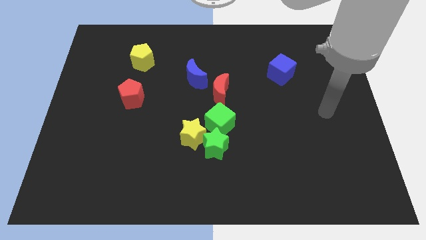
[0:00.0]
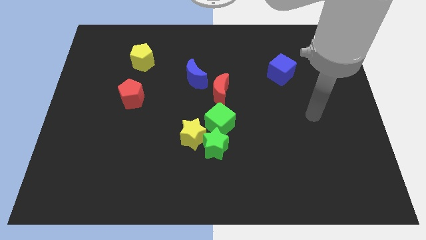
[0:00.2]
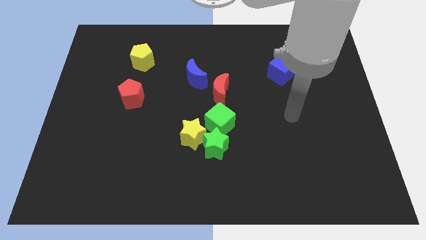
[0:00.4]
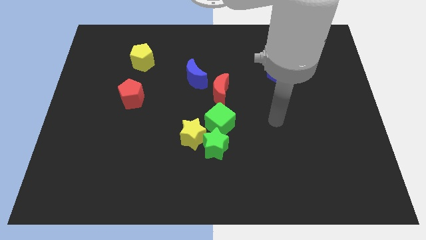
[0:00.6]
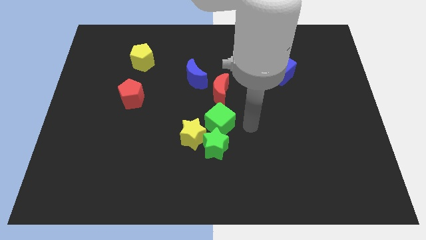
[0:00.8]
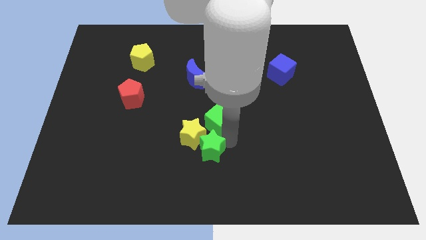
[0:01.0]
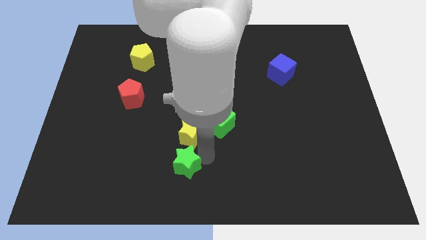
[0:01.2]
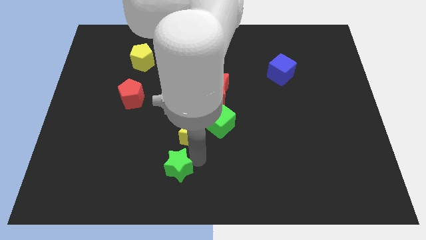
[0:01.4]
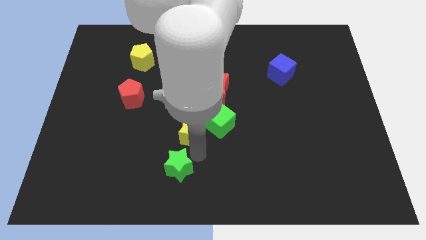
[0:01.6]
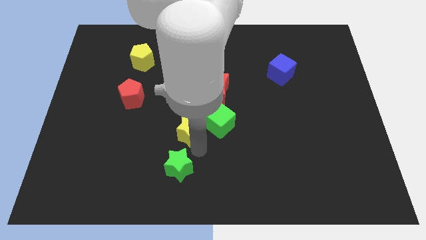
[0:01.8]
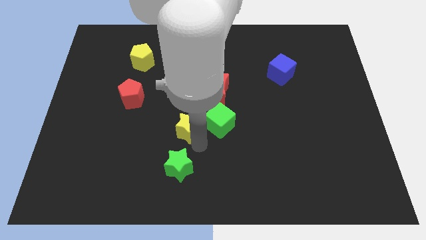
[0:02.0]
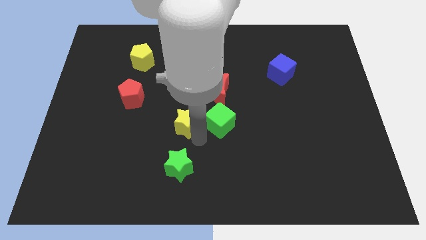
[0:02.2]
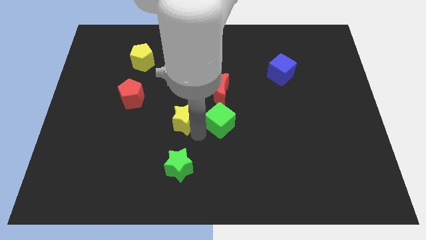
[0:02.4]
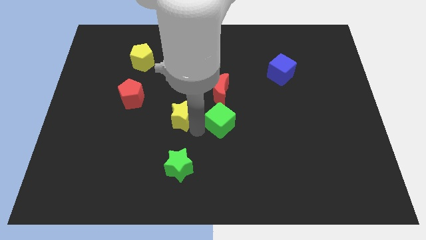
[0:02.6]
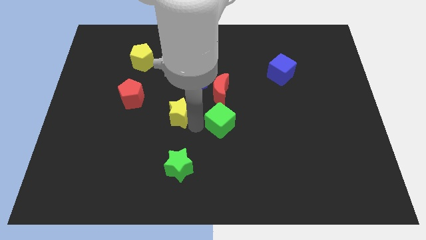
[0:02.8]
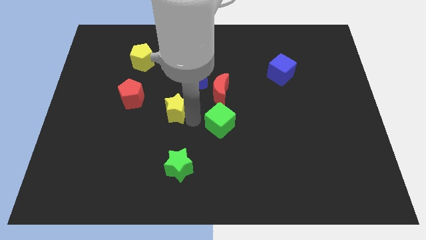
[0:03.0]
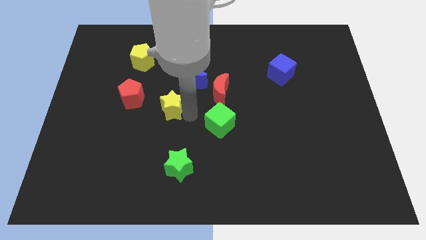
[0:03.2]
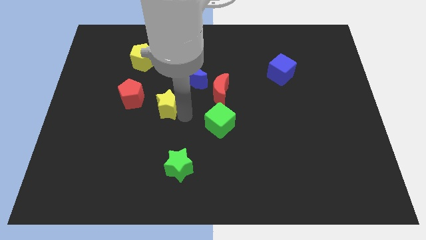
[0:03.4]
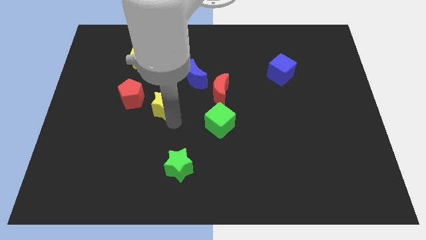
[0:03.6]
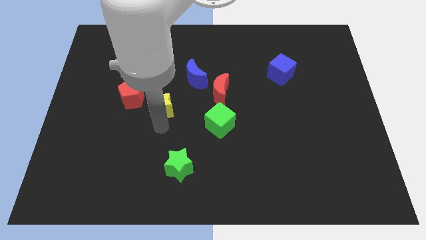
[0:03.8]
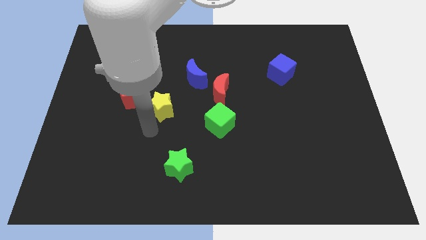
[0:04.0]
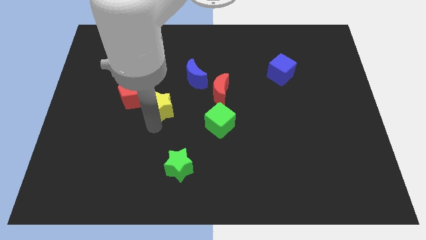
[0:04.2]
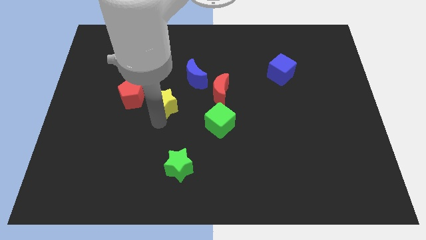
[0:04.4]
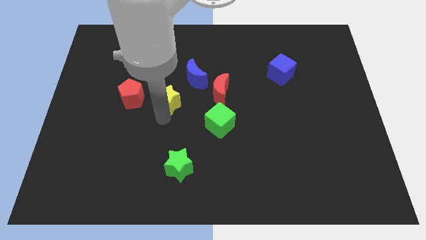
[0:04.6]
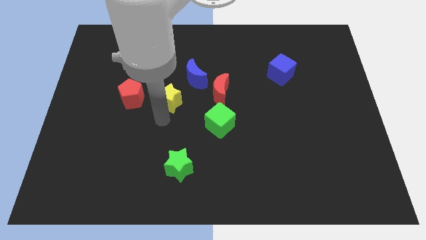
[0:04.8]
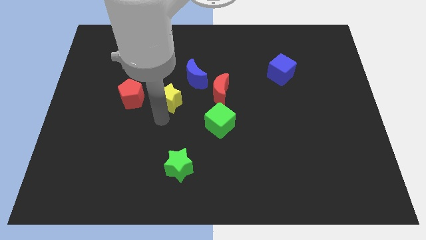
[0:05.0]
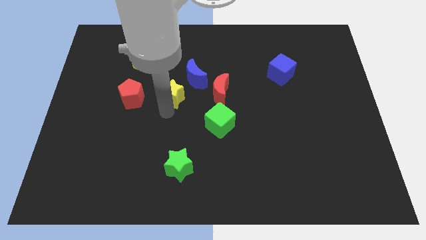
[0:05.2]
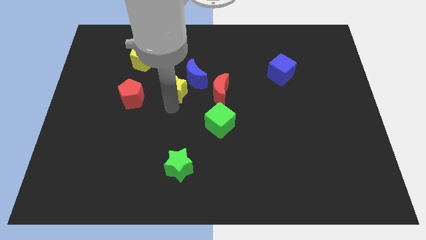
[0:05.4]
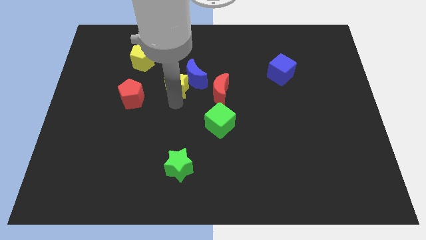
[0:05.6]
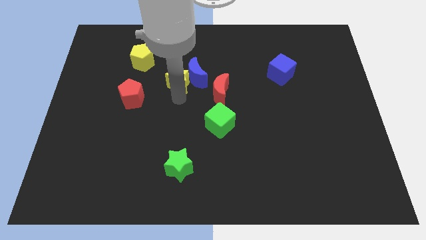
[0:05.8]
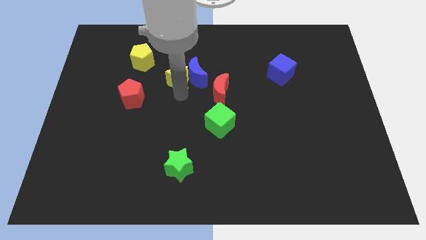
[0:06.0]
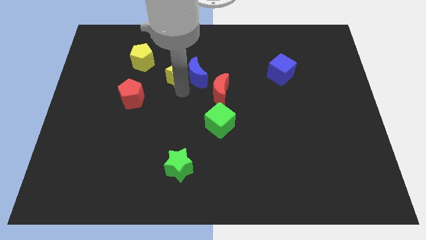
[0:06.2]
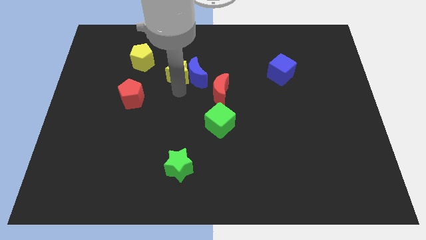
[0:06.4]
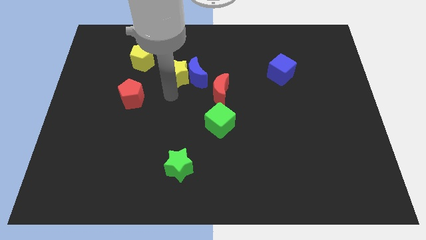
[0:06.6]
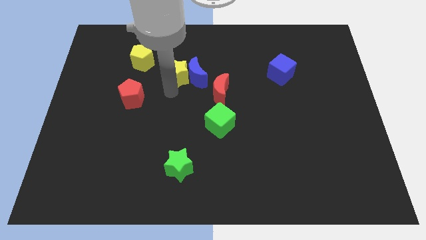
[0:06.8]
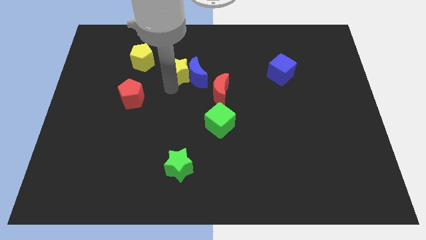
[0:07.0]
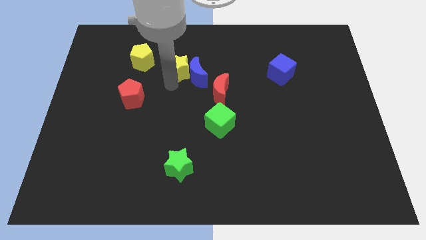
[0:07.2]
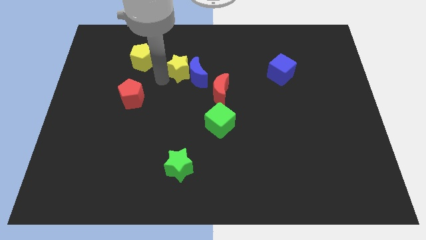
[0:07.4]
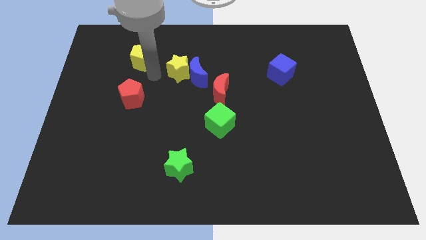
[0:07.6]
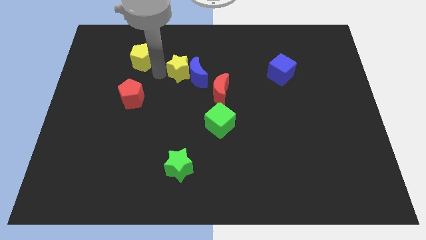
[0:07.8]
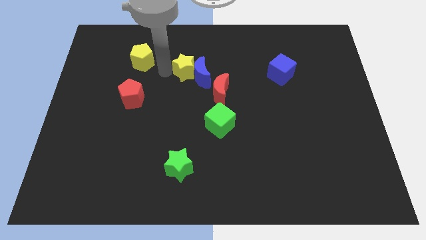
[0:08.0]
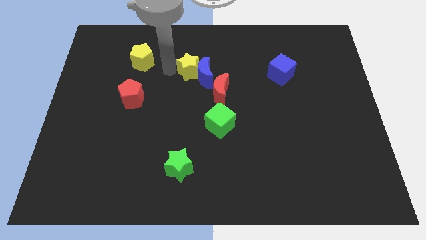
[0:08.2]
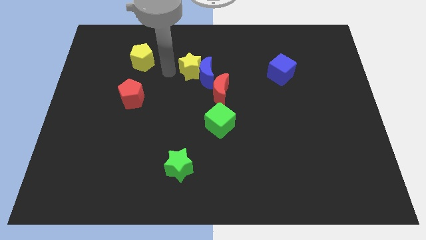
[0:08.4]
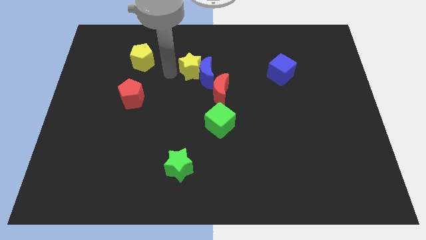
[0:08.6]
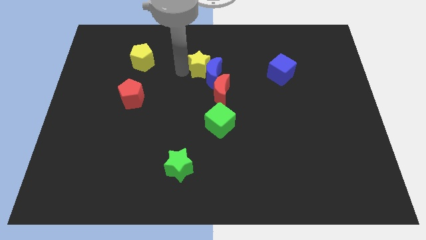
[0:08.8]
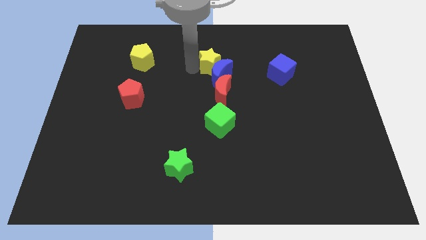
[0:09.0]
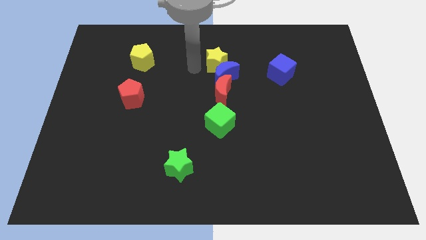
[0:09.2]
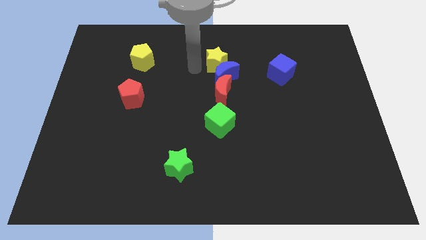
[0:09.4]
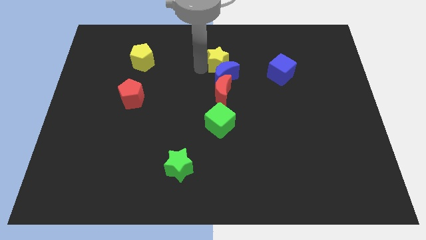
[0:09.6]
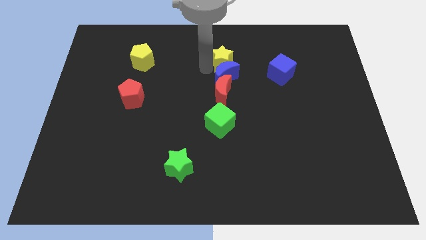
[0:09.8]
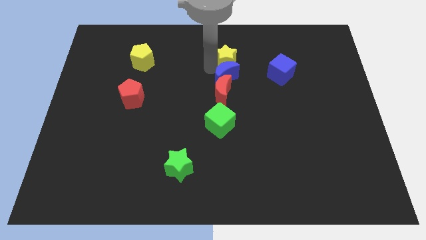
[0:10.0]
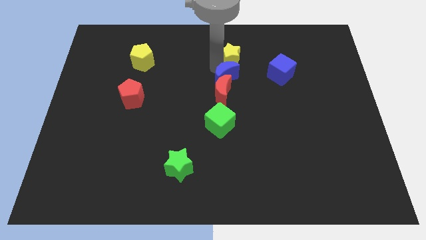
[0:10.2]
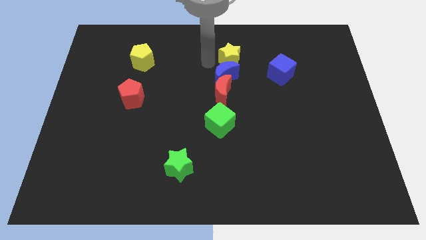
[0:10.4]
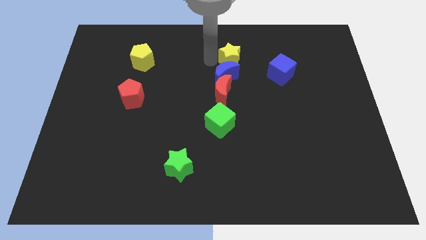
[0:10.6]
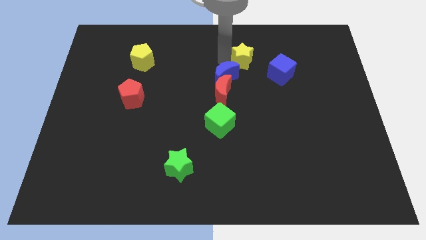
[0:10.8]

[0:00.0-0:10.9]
move the yellow star to the top left of the blue cube

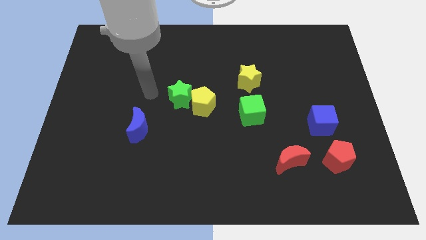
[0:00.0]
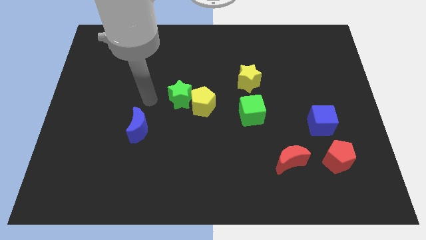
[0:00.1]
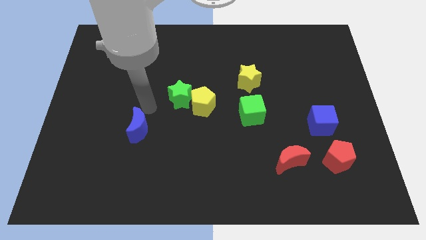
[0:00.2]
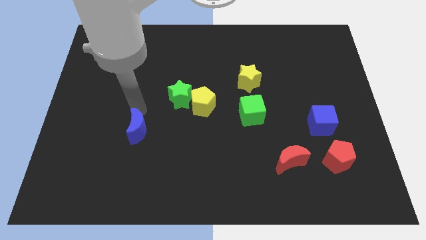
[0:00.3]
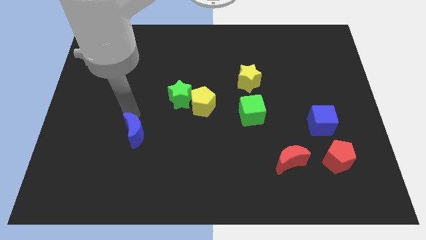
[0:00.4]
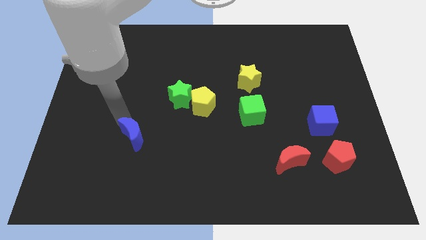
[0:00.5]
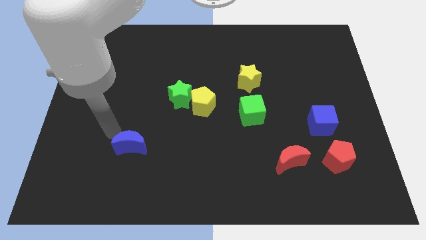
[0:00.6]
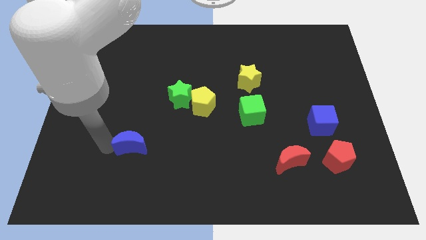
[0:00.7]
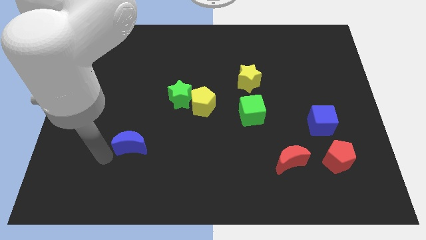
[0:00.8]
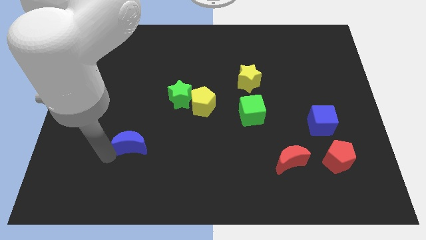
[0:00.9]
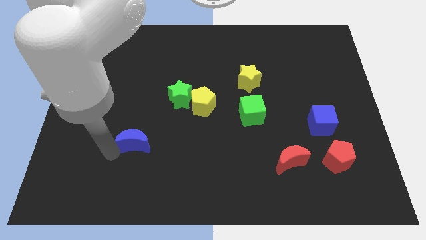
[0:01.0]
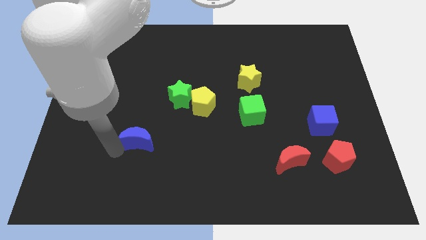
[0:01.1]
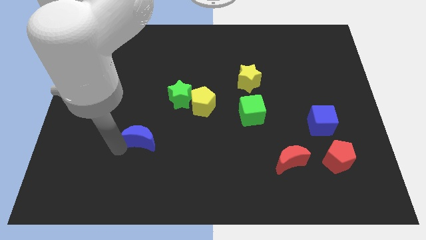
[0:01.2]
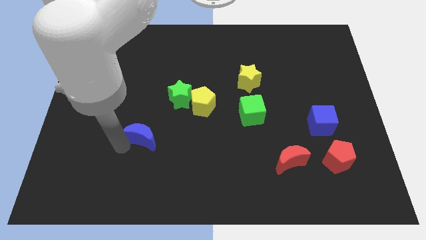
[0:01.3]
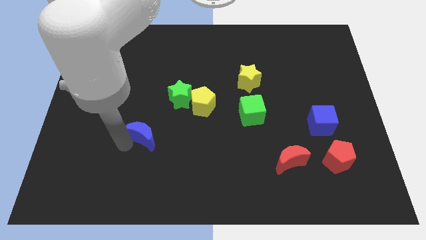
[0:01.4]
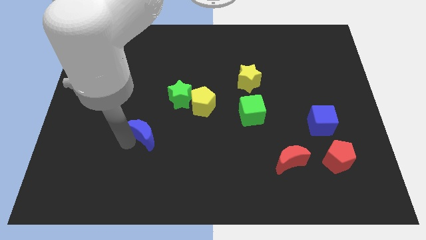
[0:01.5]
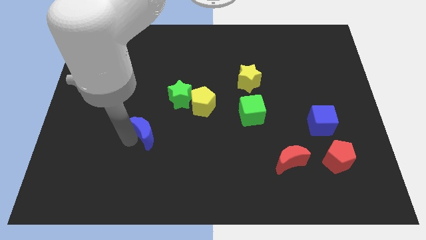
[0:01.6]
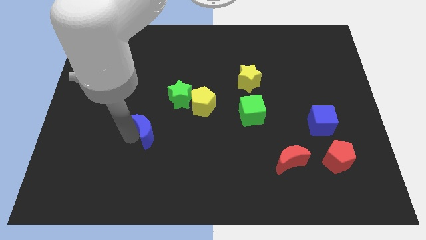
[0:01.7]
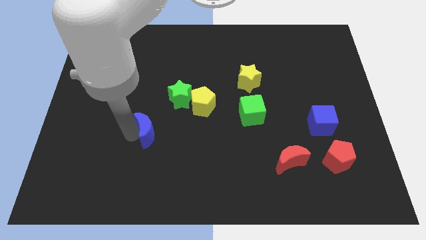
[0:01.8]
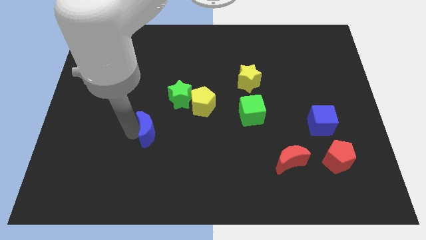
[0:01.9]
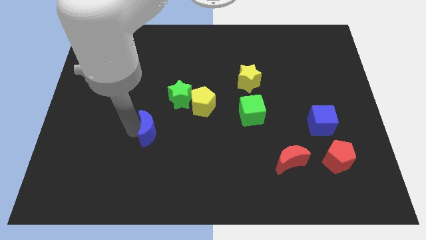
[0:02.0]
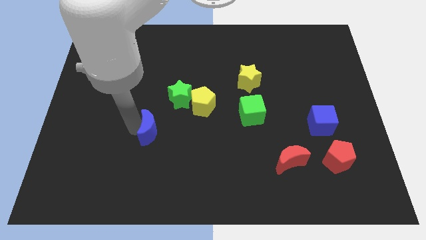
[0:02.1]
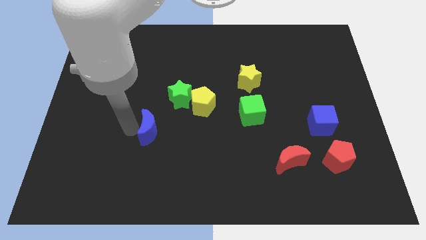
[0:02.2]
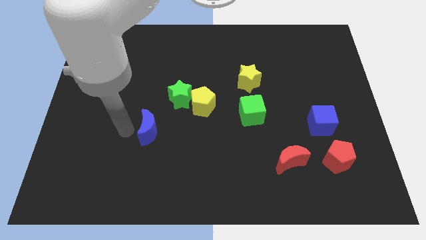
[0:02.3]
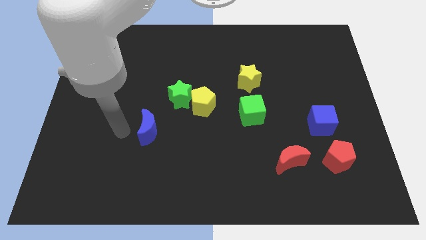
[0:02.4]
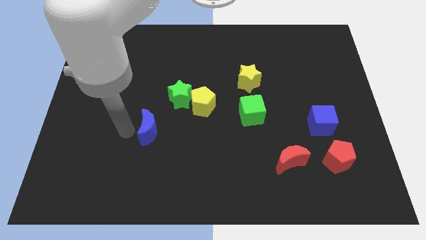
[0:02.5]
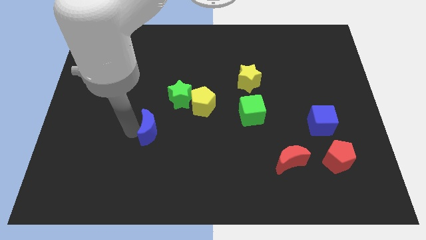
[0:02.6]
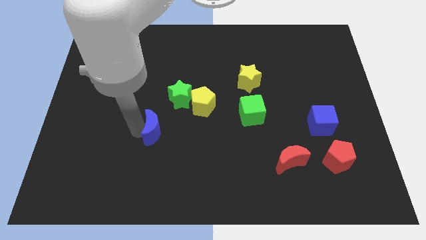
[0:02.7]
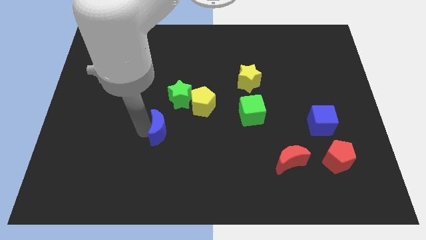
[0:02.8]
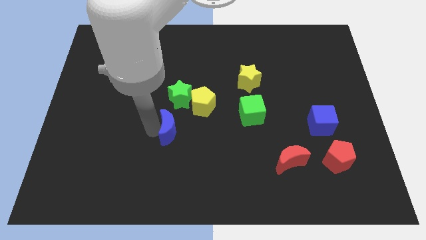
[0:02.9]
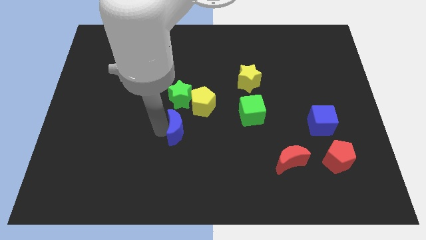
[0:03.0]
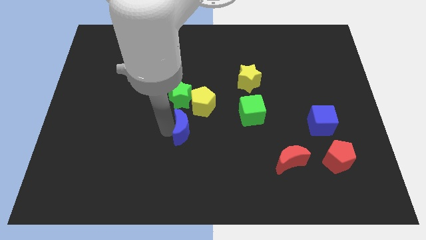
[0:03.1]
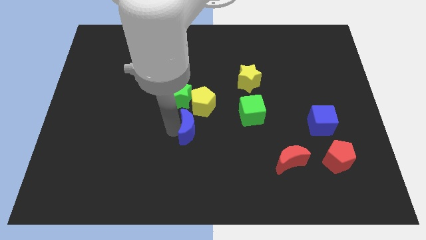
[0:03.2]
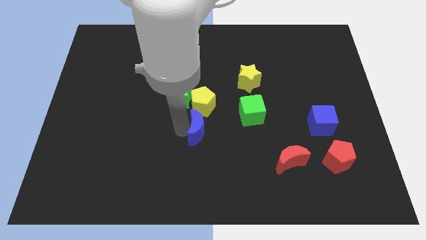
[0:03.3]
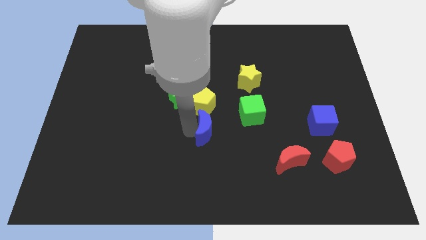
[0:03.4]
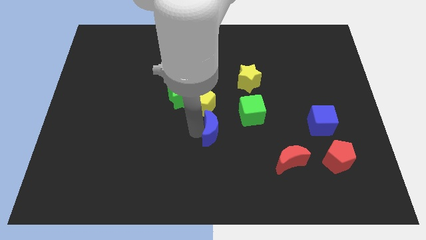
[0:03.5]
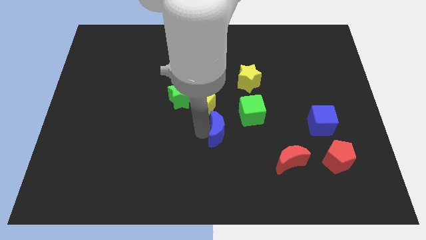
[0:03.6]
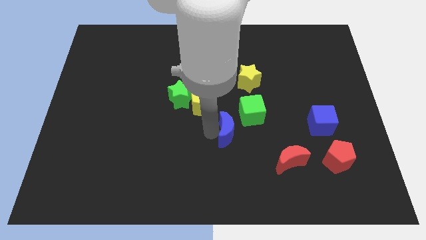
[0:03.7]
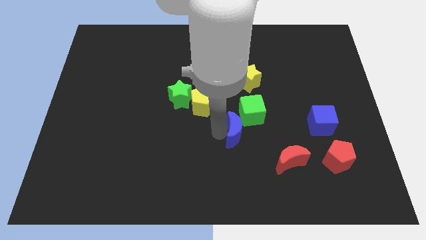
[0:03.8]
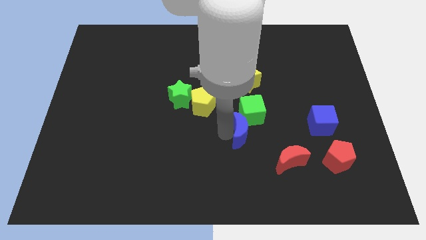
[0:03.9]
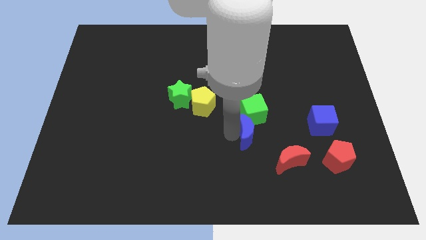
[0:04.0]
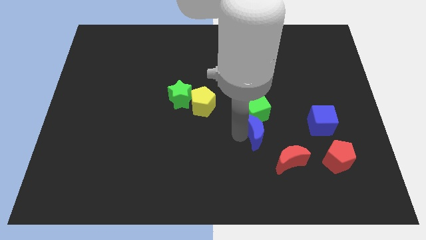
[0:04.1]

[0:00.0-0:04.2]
put the blue moon diagonally down and to the right of the green cube
